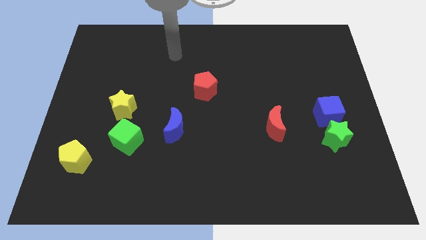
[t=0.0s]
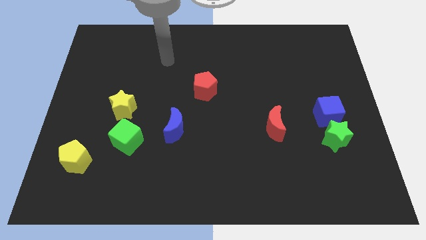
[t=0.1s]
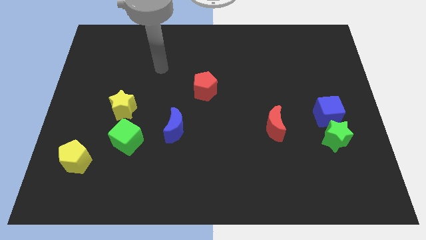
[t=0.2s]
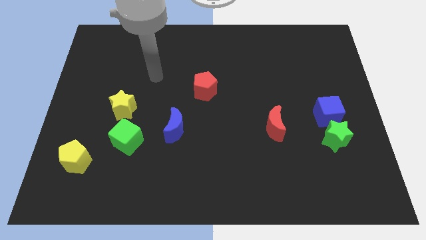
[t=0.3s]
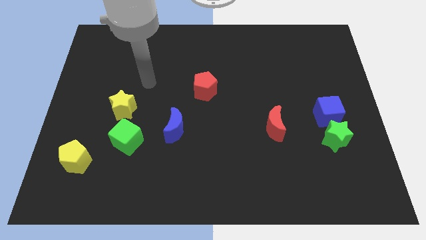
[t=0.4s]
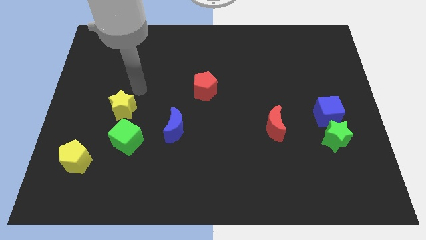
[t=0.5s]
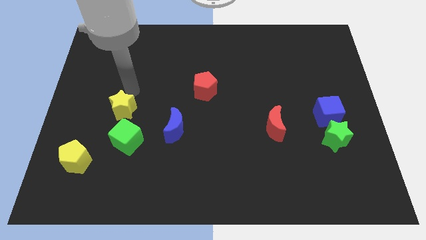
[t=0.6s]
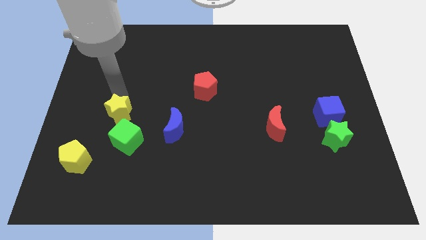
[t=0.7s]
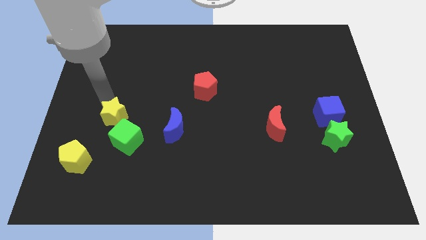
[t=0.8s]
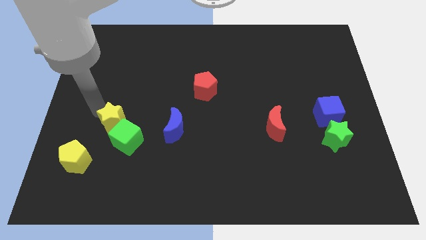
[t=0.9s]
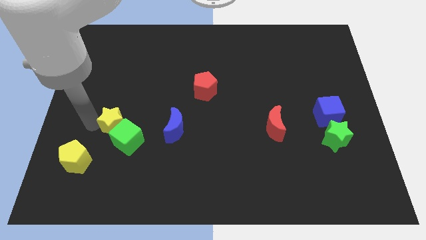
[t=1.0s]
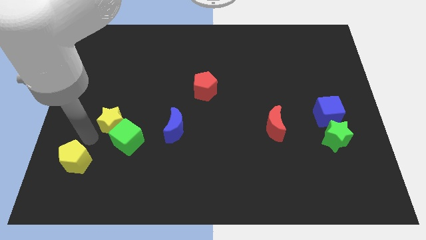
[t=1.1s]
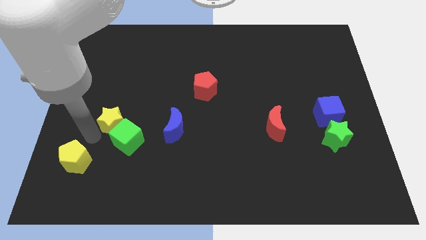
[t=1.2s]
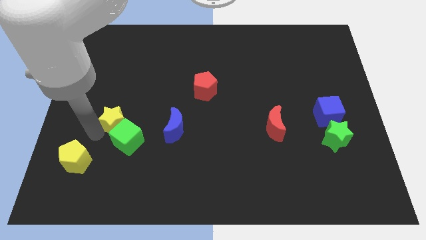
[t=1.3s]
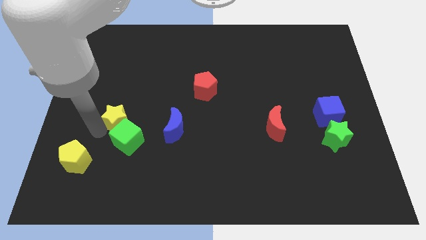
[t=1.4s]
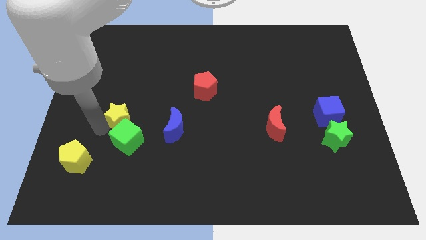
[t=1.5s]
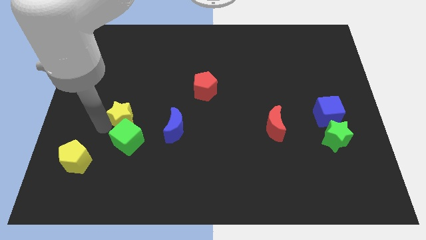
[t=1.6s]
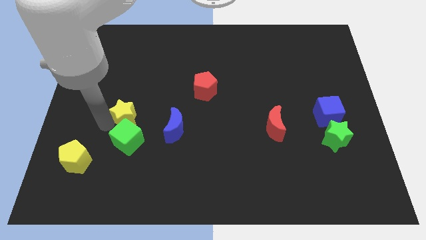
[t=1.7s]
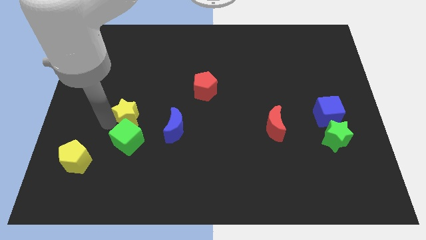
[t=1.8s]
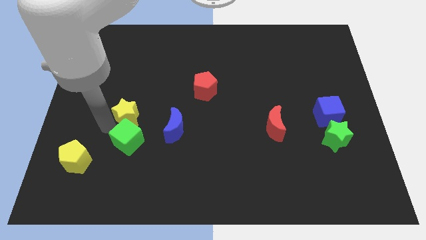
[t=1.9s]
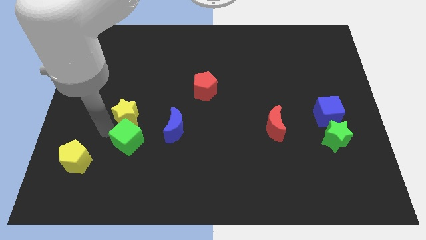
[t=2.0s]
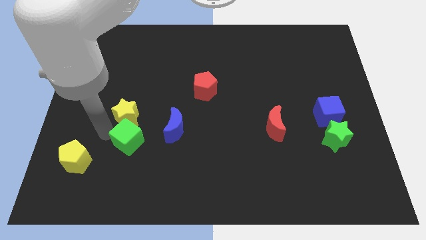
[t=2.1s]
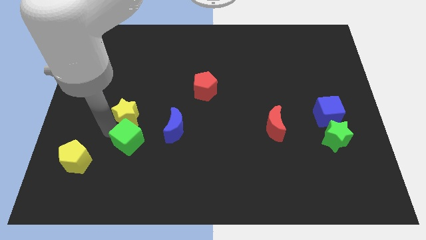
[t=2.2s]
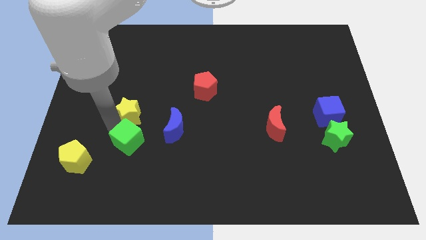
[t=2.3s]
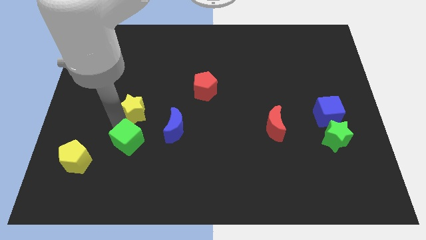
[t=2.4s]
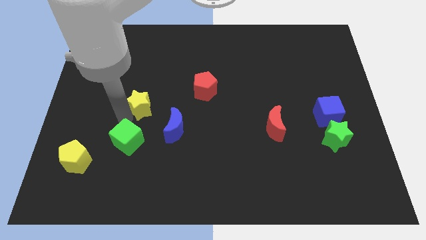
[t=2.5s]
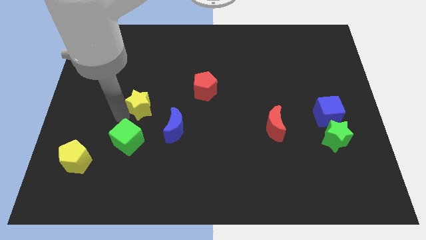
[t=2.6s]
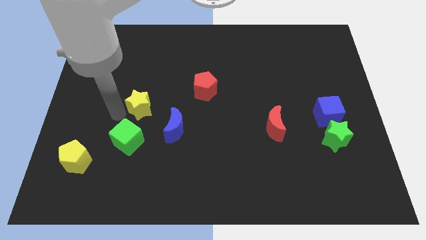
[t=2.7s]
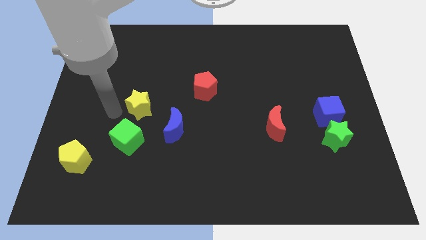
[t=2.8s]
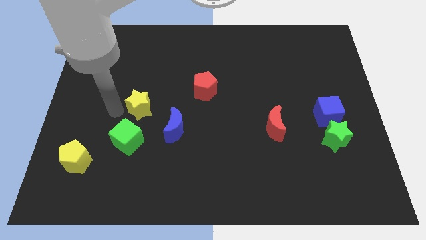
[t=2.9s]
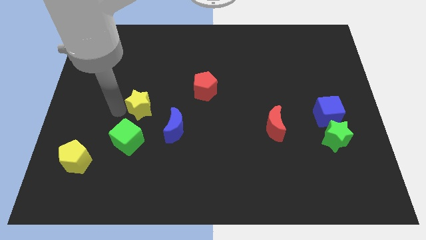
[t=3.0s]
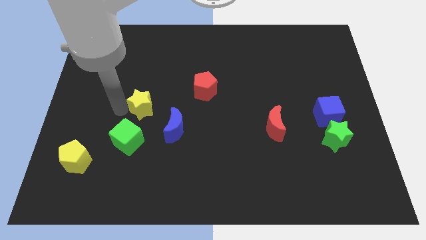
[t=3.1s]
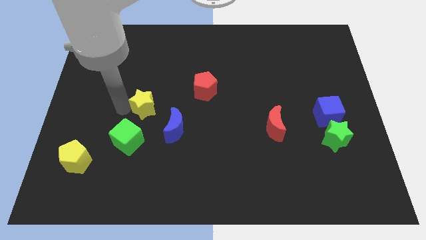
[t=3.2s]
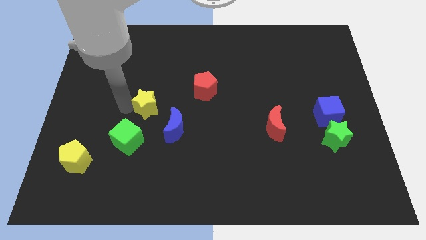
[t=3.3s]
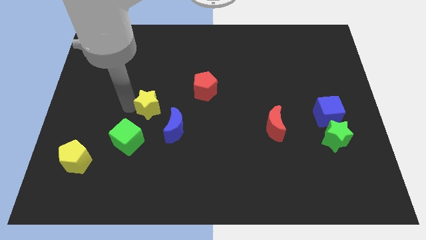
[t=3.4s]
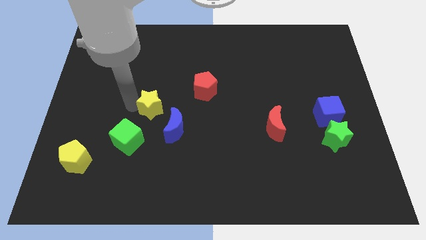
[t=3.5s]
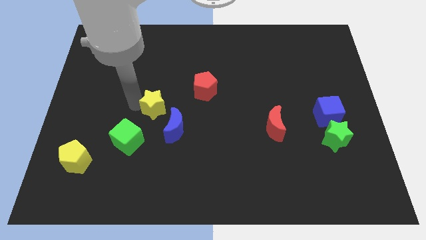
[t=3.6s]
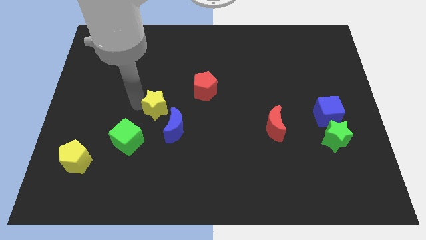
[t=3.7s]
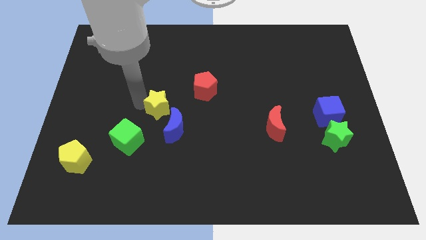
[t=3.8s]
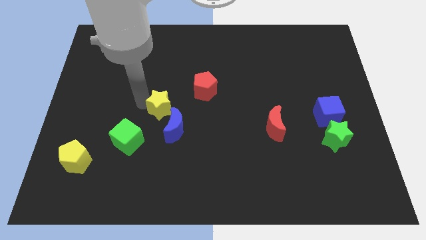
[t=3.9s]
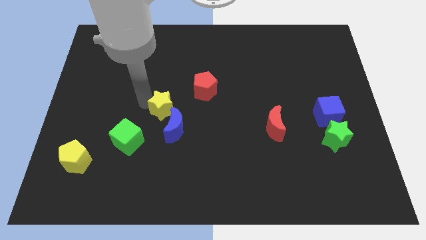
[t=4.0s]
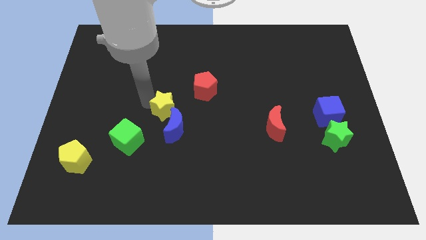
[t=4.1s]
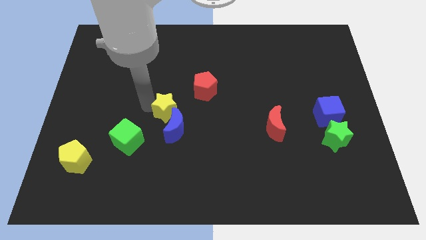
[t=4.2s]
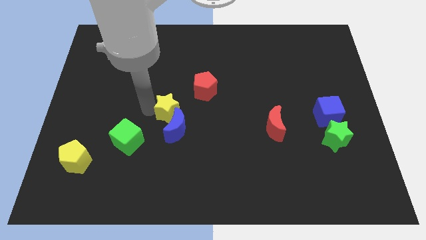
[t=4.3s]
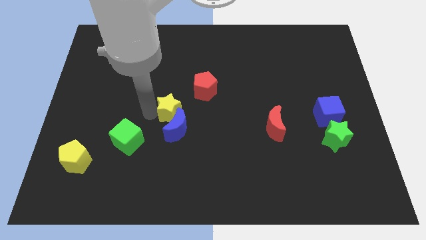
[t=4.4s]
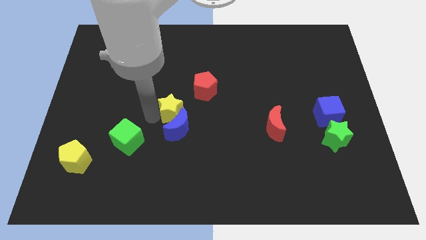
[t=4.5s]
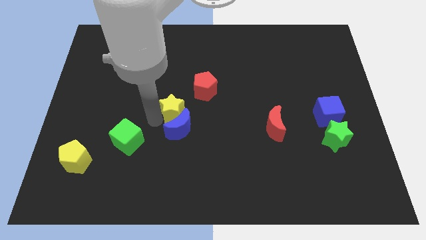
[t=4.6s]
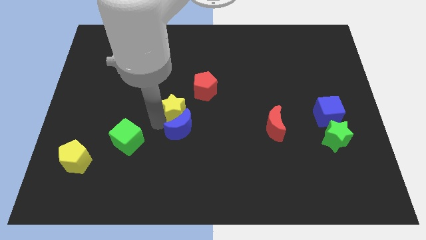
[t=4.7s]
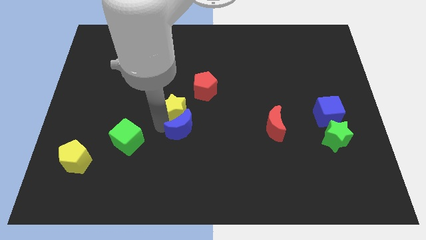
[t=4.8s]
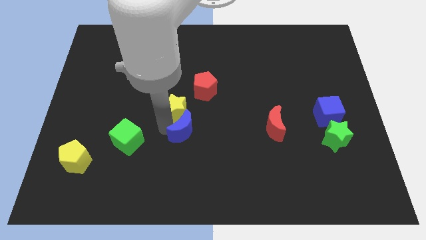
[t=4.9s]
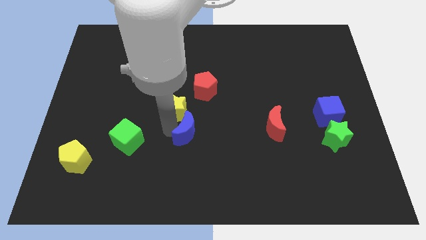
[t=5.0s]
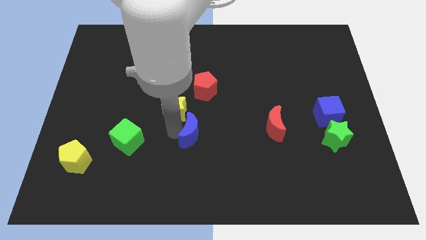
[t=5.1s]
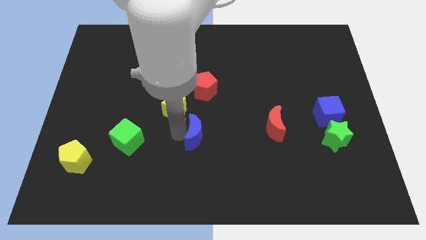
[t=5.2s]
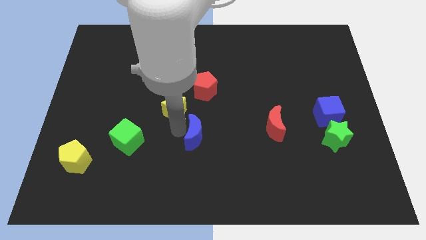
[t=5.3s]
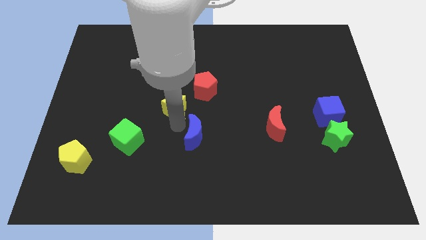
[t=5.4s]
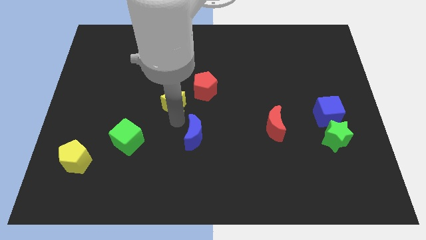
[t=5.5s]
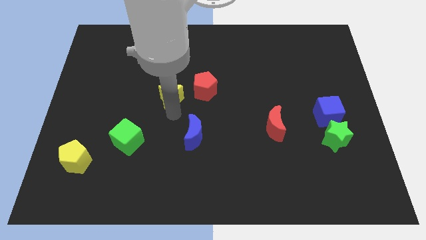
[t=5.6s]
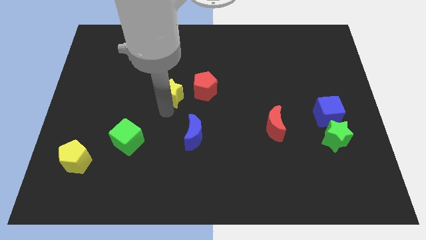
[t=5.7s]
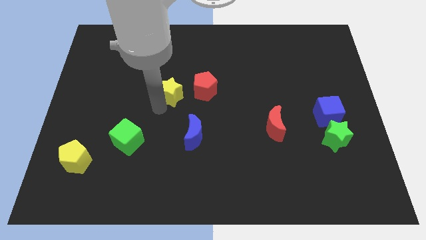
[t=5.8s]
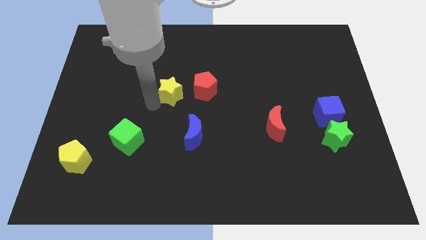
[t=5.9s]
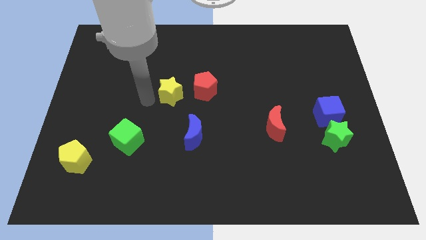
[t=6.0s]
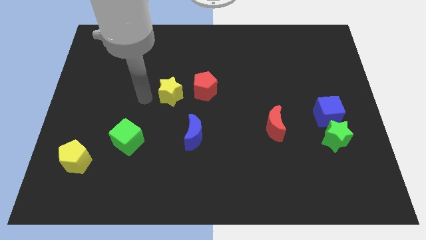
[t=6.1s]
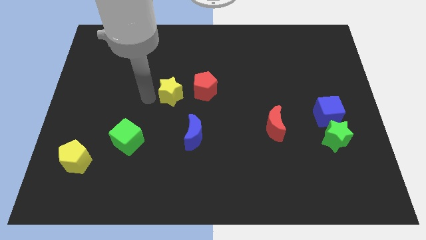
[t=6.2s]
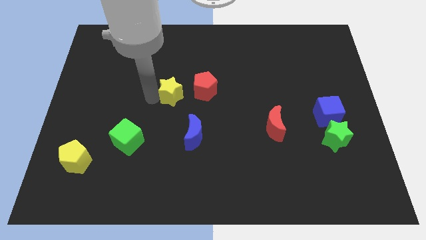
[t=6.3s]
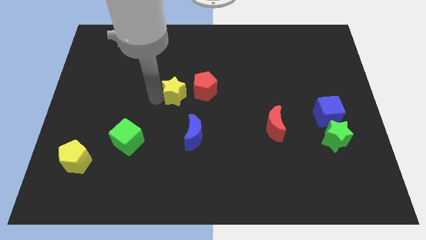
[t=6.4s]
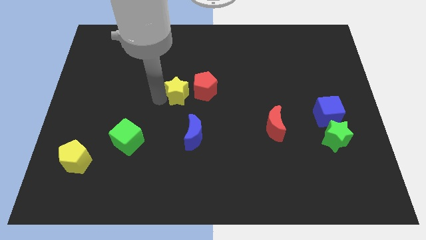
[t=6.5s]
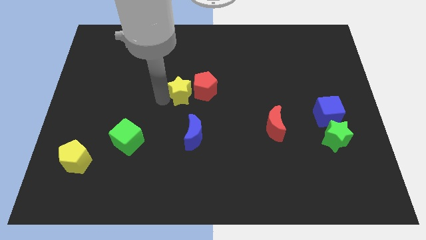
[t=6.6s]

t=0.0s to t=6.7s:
move the yellow star next to the red pentagon
